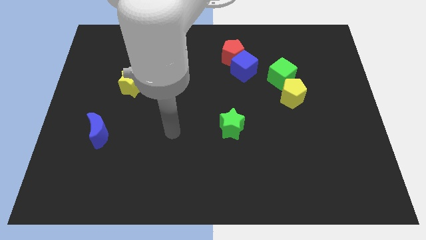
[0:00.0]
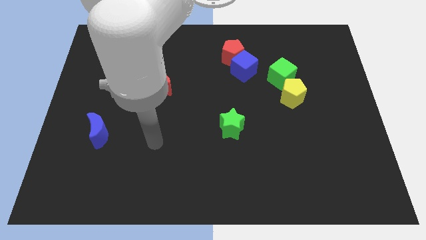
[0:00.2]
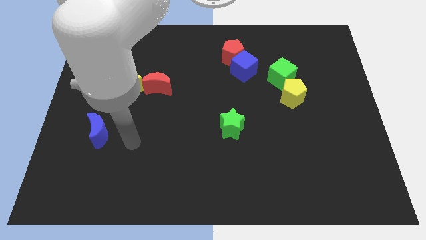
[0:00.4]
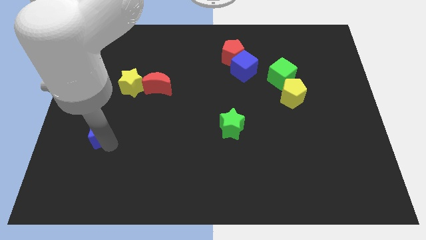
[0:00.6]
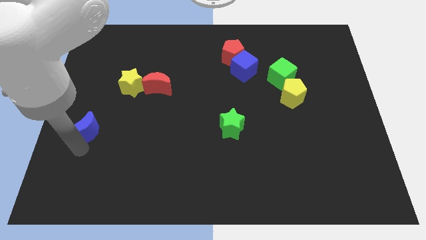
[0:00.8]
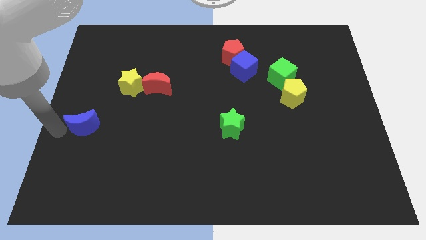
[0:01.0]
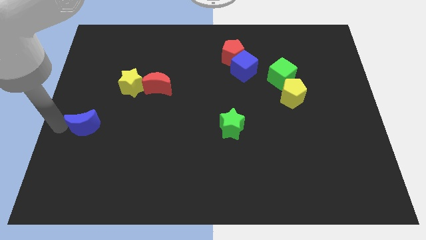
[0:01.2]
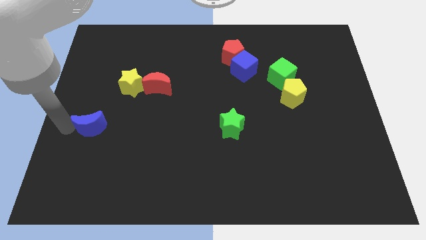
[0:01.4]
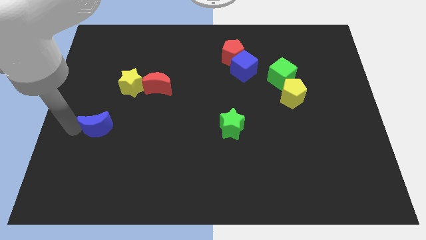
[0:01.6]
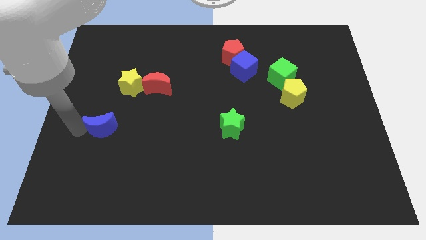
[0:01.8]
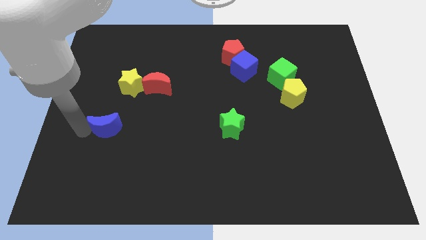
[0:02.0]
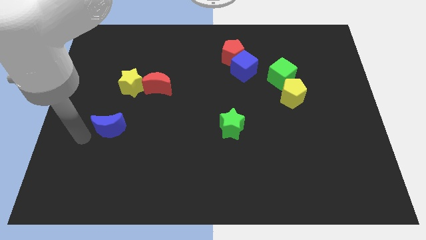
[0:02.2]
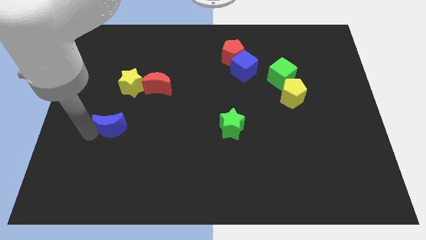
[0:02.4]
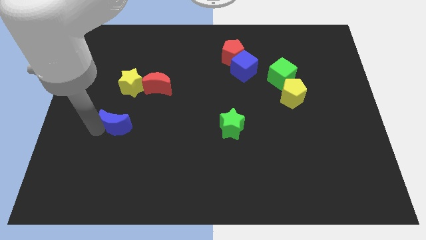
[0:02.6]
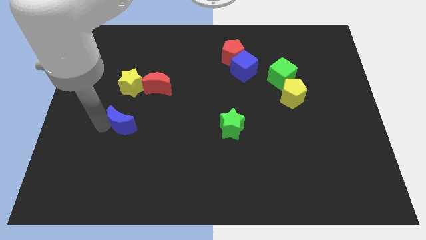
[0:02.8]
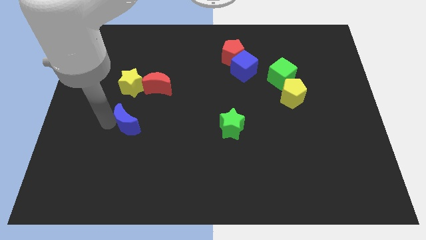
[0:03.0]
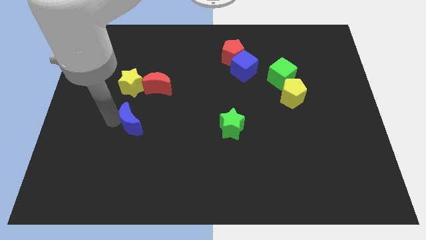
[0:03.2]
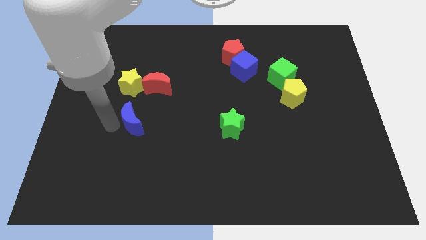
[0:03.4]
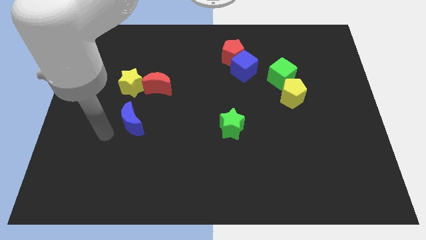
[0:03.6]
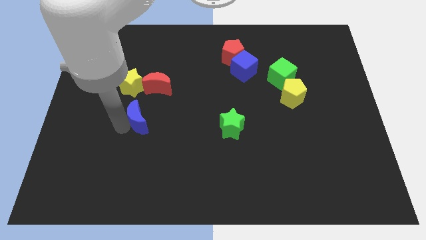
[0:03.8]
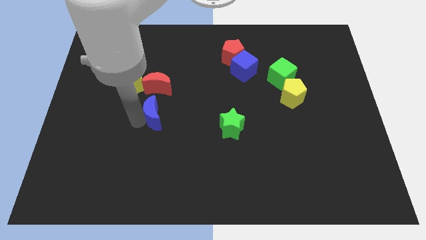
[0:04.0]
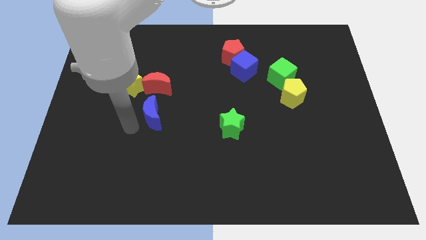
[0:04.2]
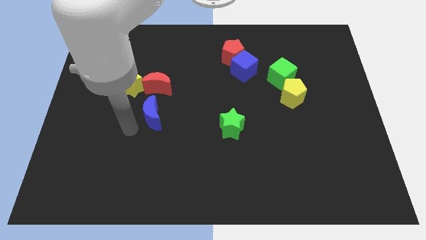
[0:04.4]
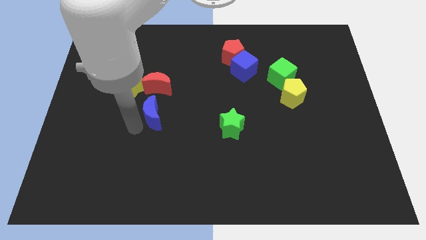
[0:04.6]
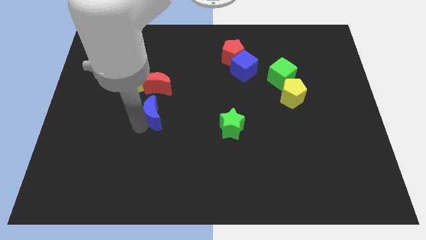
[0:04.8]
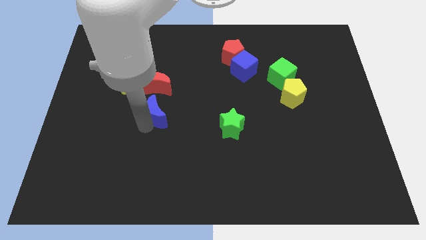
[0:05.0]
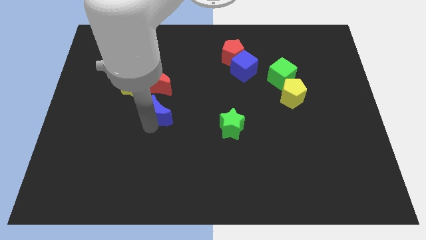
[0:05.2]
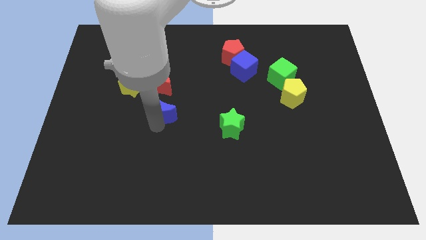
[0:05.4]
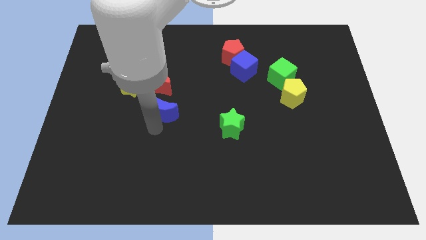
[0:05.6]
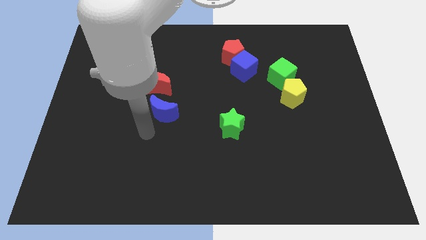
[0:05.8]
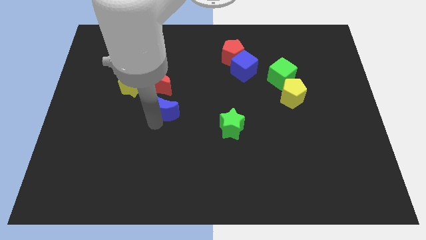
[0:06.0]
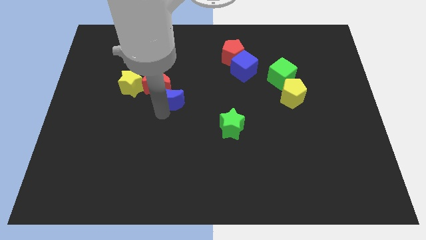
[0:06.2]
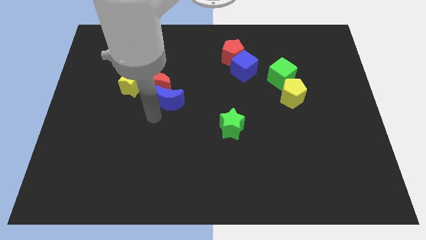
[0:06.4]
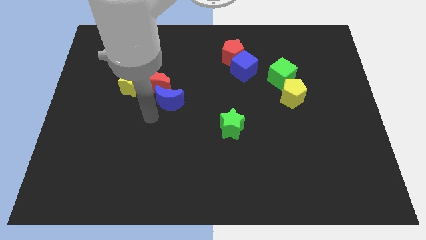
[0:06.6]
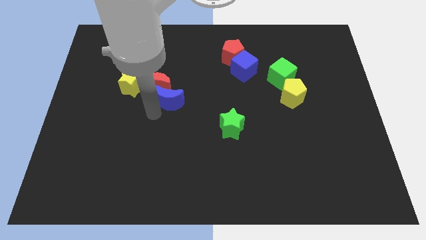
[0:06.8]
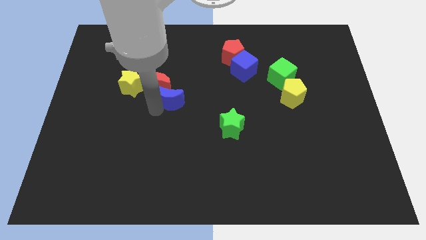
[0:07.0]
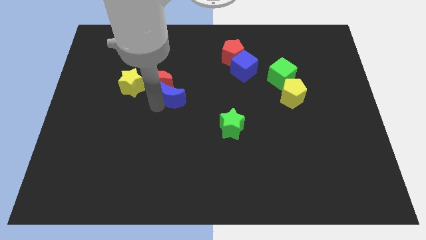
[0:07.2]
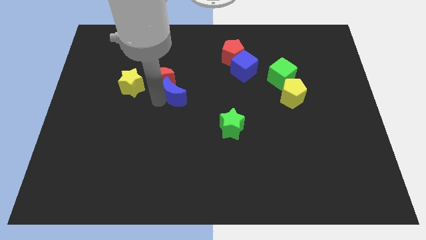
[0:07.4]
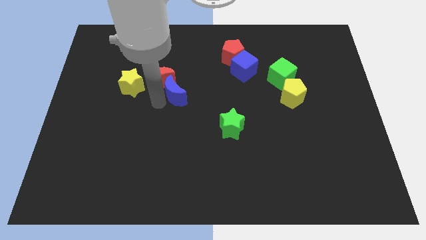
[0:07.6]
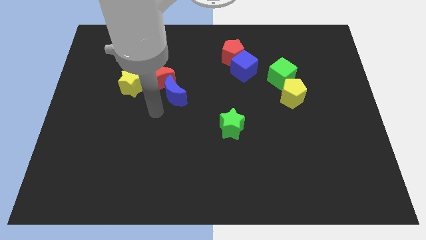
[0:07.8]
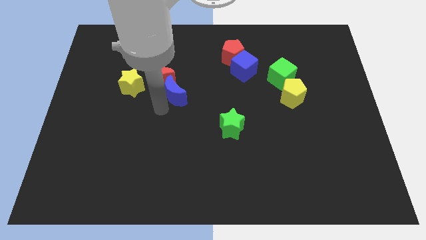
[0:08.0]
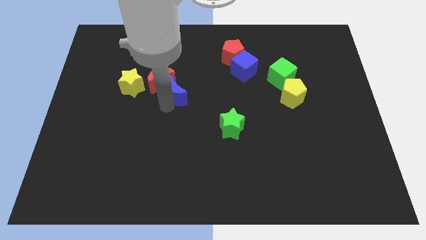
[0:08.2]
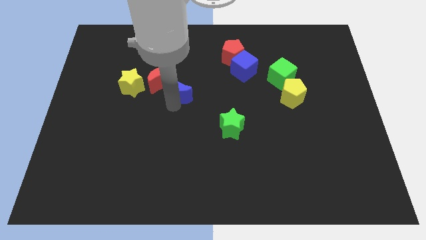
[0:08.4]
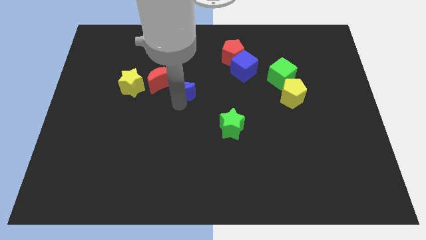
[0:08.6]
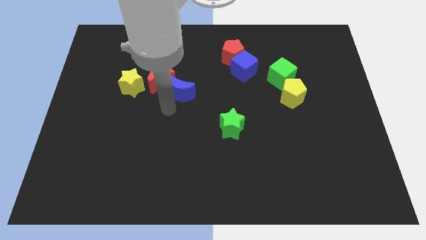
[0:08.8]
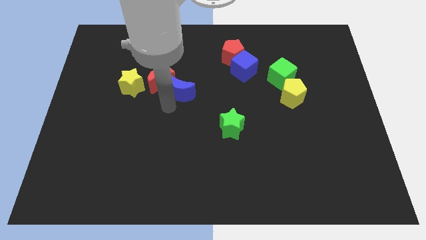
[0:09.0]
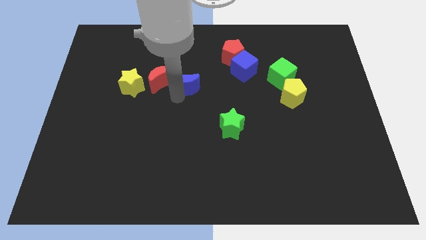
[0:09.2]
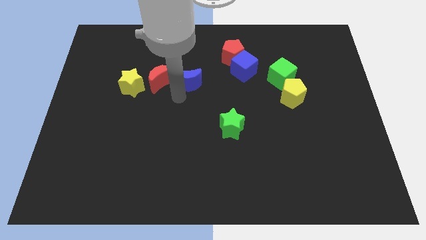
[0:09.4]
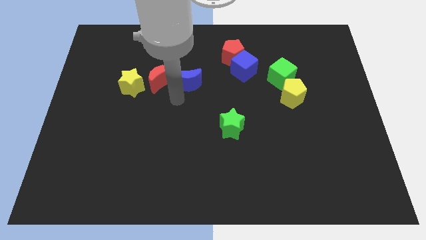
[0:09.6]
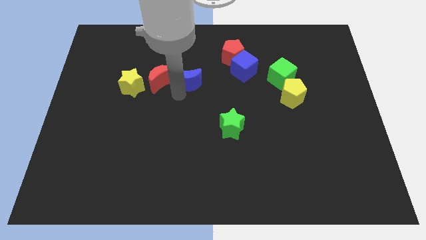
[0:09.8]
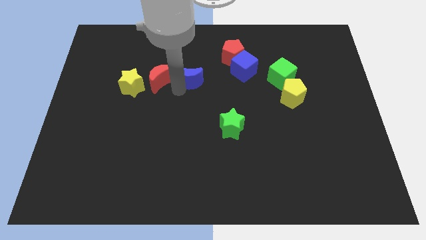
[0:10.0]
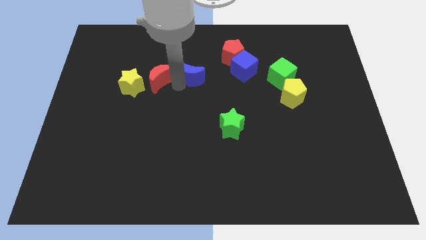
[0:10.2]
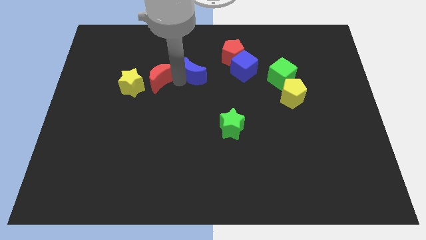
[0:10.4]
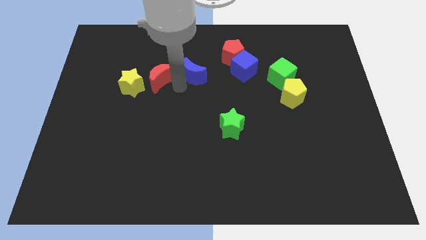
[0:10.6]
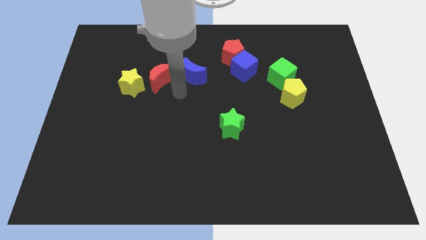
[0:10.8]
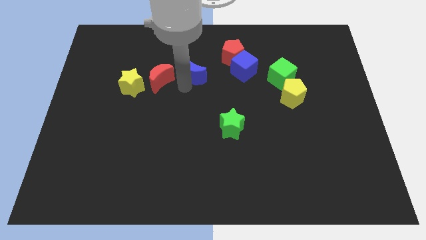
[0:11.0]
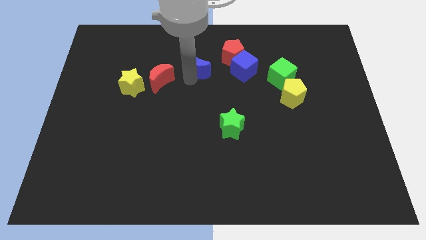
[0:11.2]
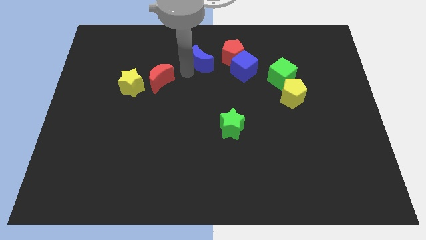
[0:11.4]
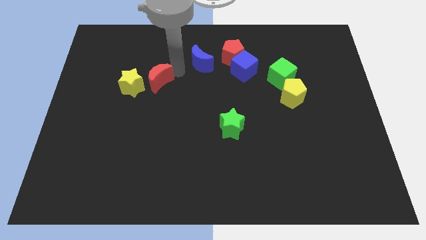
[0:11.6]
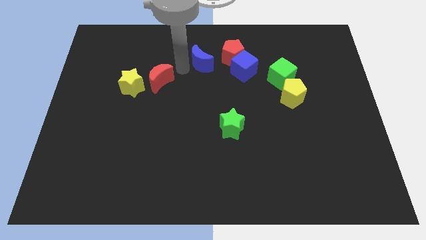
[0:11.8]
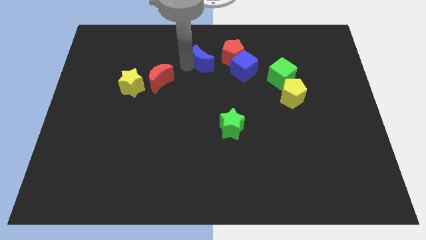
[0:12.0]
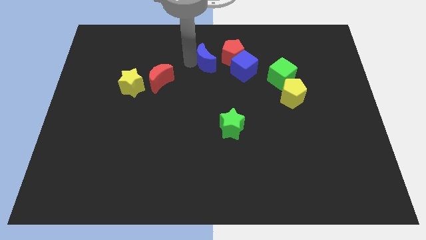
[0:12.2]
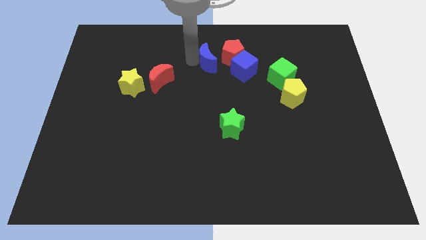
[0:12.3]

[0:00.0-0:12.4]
slide the blue moon to the top left of the blue cube

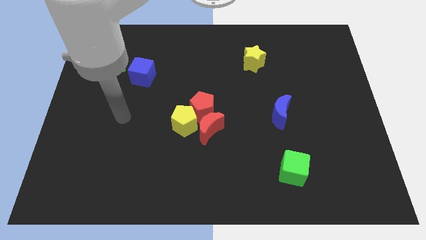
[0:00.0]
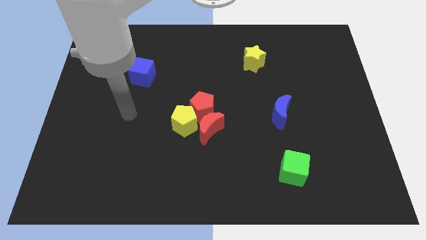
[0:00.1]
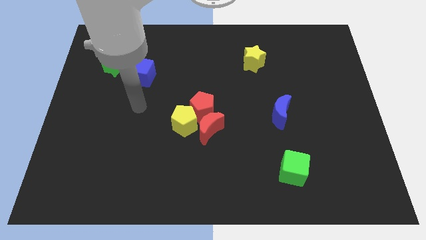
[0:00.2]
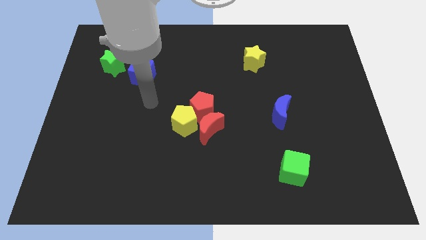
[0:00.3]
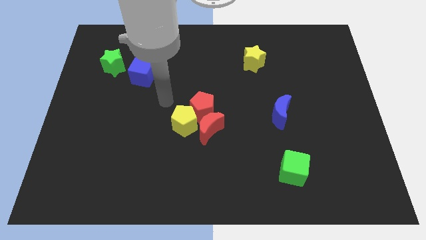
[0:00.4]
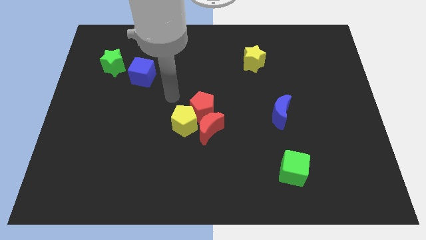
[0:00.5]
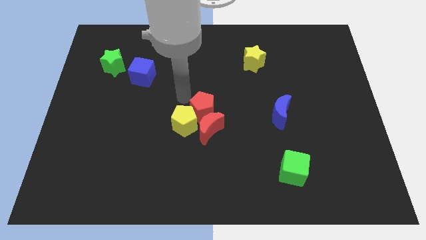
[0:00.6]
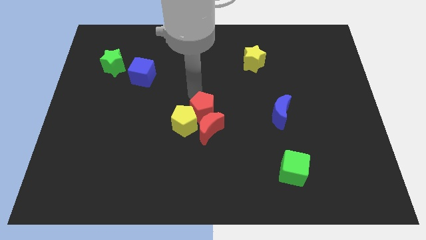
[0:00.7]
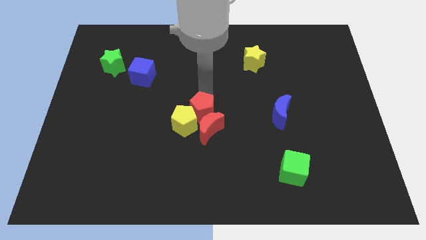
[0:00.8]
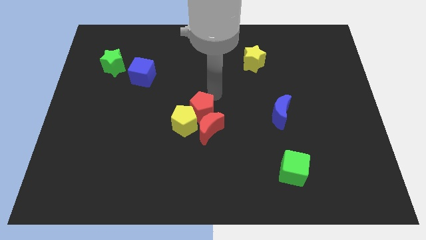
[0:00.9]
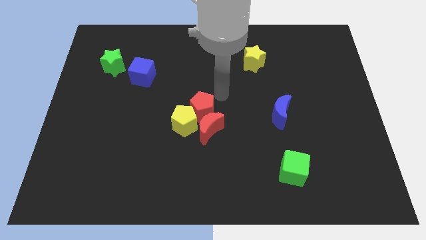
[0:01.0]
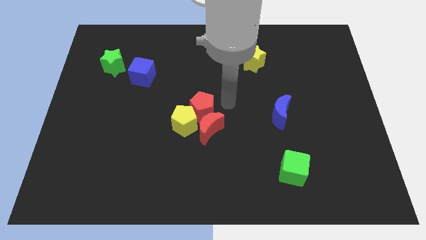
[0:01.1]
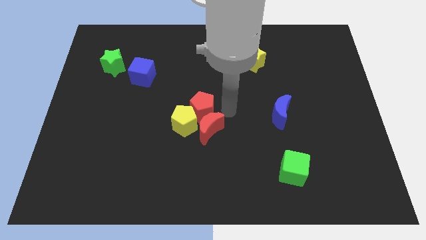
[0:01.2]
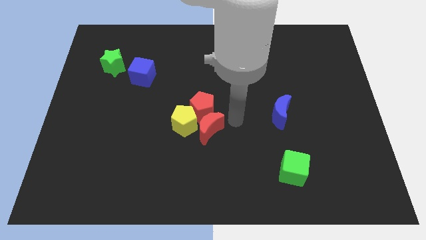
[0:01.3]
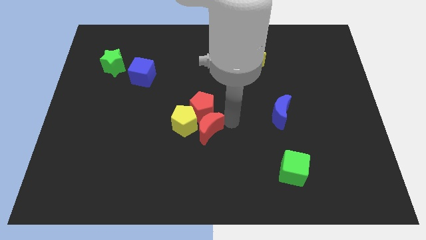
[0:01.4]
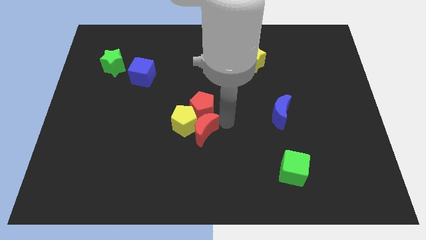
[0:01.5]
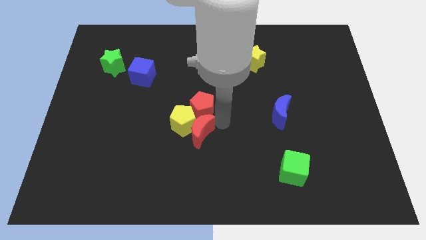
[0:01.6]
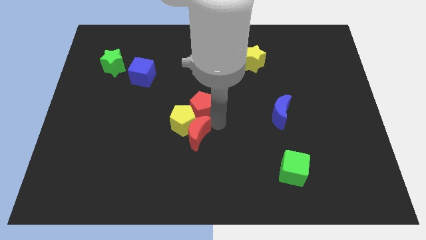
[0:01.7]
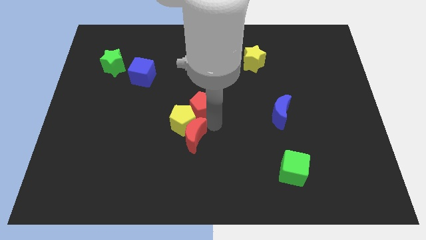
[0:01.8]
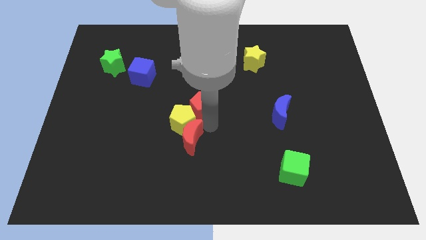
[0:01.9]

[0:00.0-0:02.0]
push the red moon to the bottom left of the yellow pentagon
